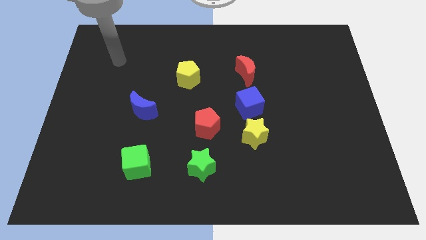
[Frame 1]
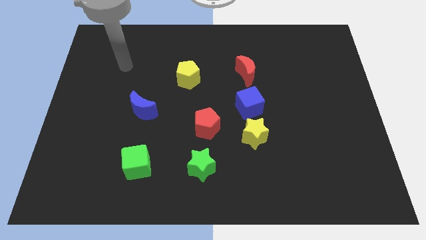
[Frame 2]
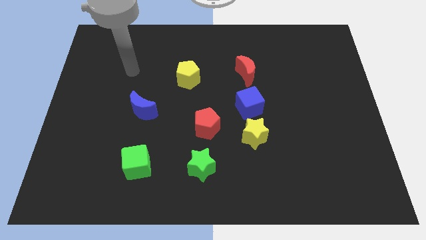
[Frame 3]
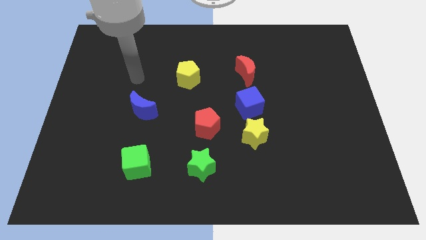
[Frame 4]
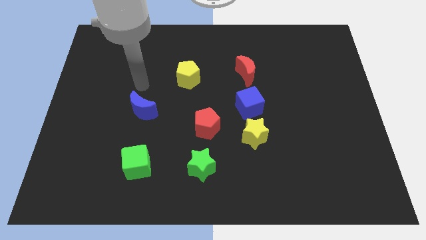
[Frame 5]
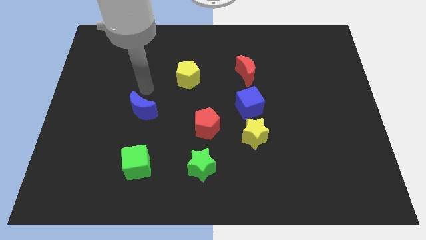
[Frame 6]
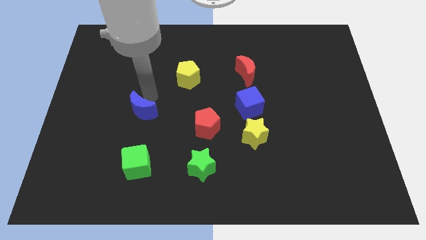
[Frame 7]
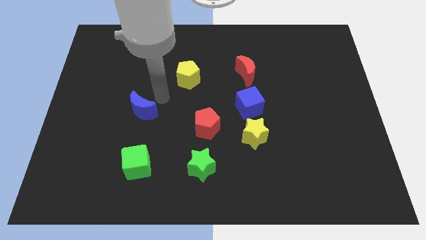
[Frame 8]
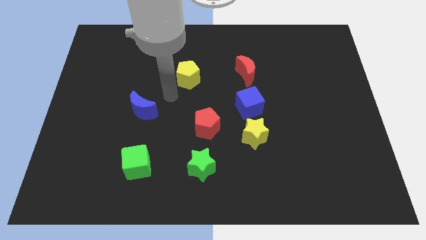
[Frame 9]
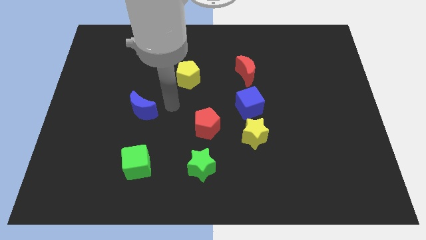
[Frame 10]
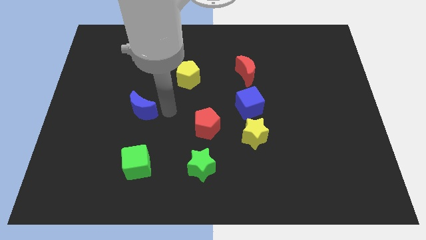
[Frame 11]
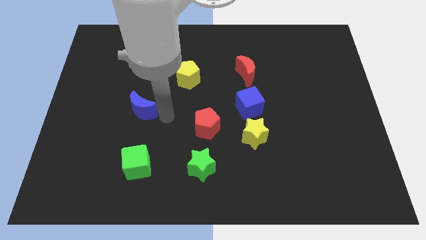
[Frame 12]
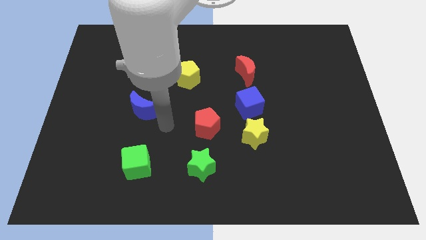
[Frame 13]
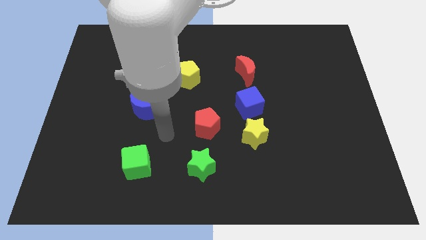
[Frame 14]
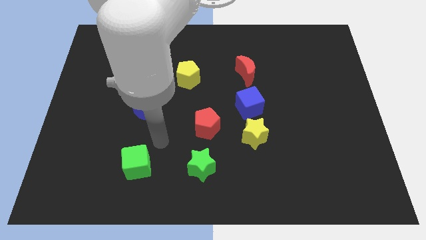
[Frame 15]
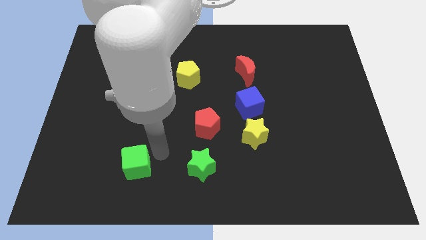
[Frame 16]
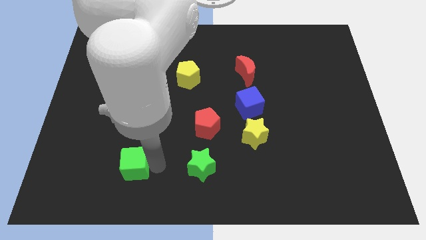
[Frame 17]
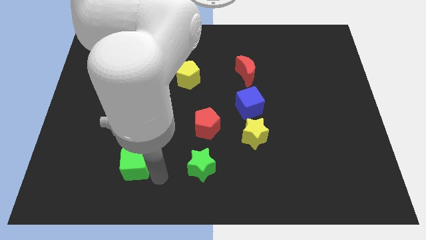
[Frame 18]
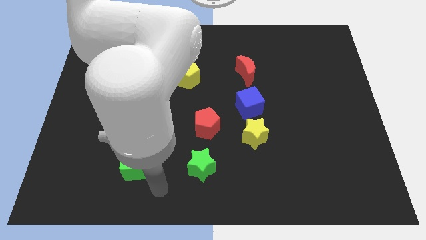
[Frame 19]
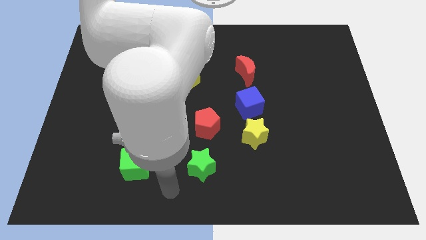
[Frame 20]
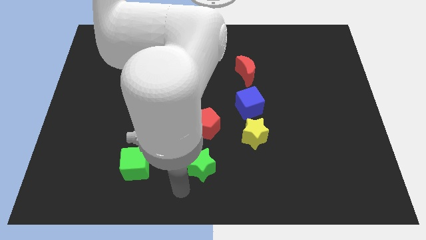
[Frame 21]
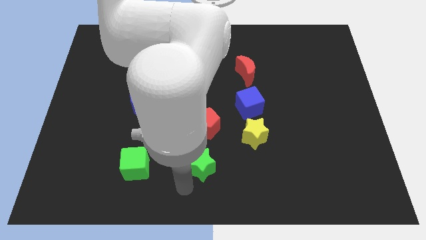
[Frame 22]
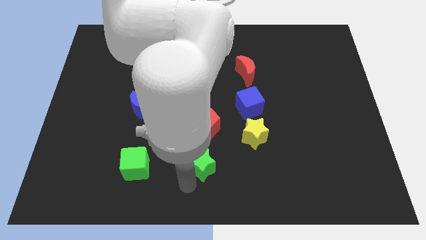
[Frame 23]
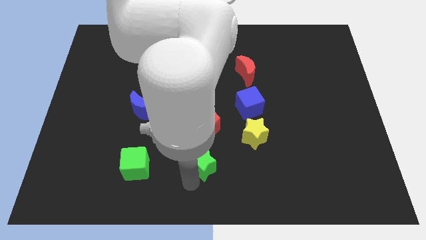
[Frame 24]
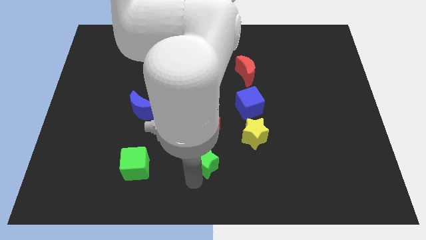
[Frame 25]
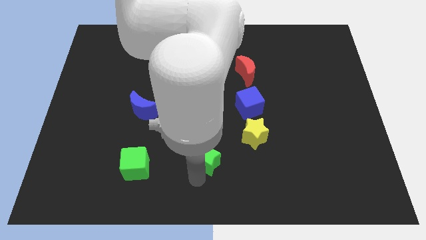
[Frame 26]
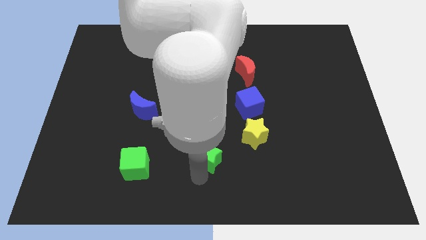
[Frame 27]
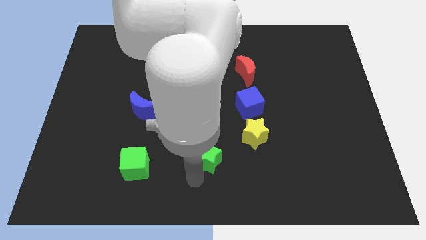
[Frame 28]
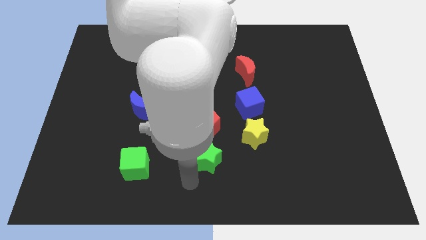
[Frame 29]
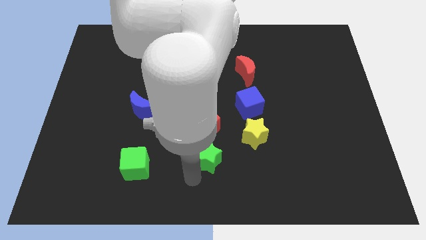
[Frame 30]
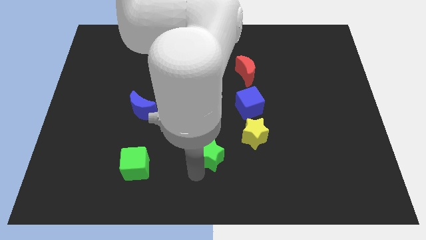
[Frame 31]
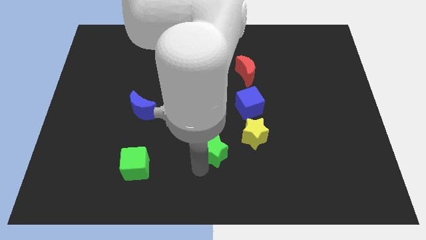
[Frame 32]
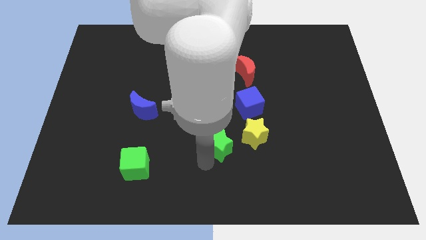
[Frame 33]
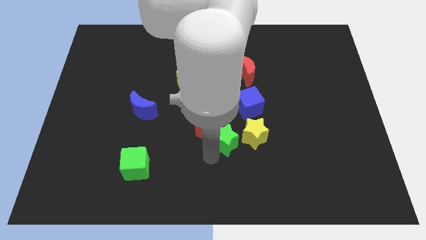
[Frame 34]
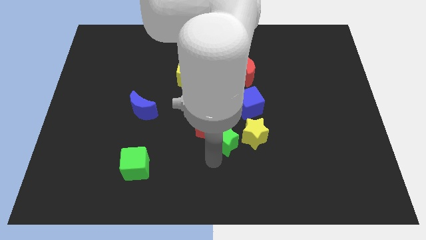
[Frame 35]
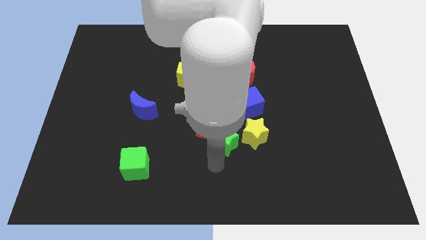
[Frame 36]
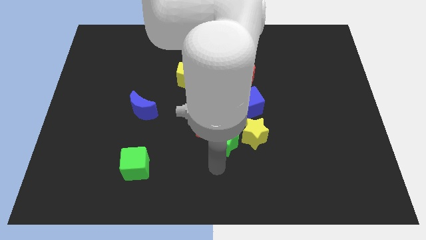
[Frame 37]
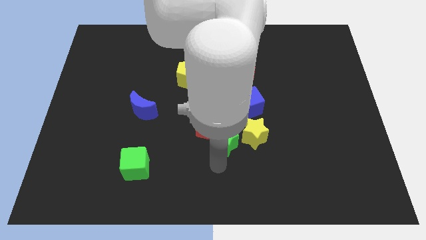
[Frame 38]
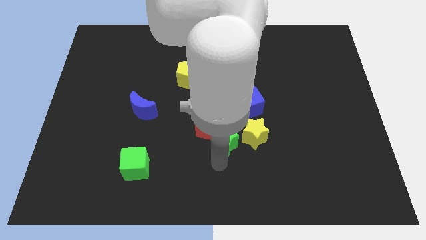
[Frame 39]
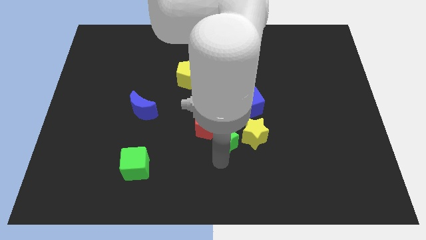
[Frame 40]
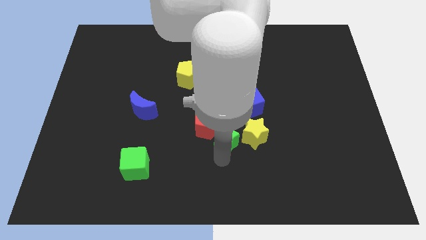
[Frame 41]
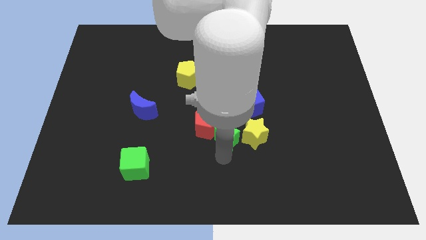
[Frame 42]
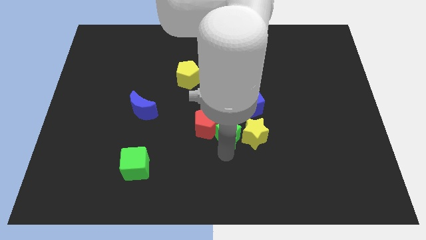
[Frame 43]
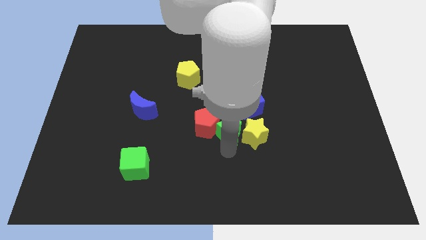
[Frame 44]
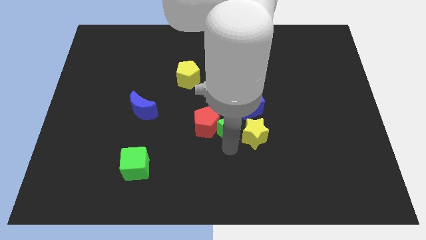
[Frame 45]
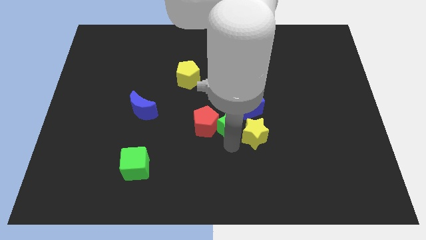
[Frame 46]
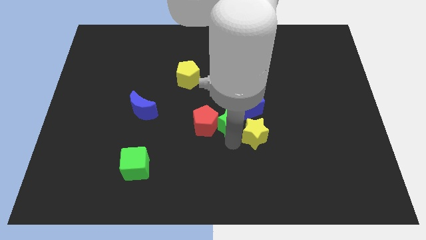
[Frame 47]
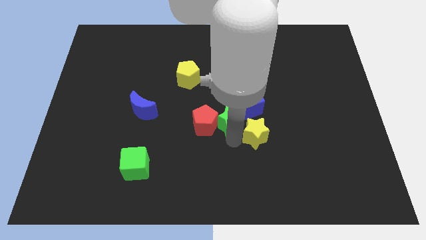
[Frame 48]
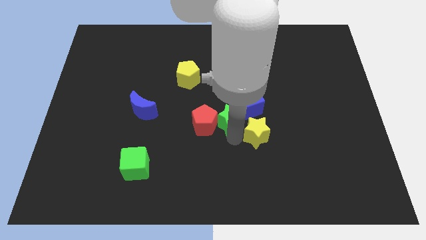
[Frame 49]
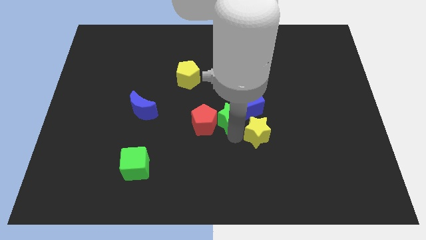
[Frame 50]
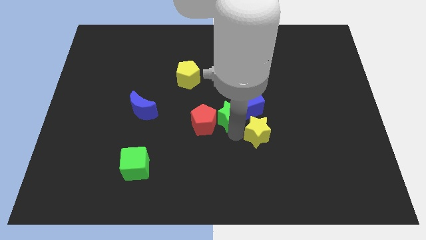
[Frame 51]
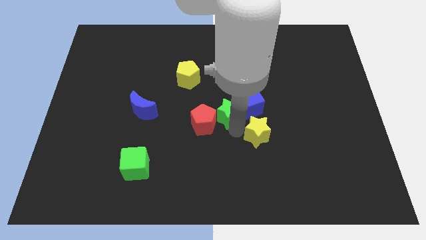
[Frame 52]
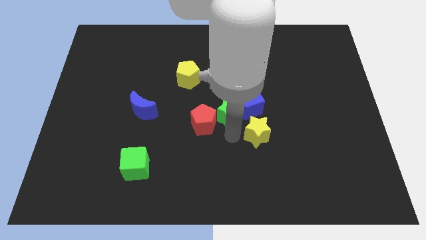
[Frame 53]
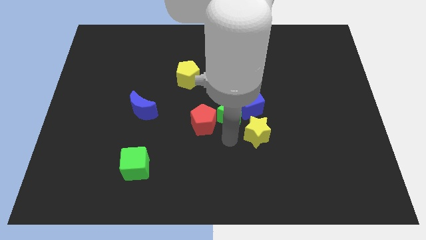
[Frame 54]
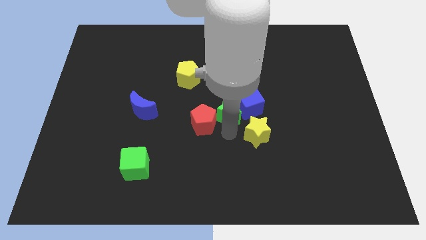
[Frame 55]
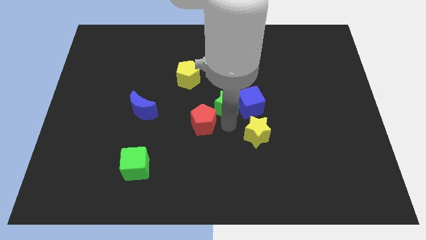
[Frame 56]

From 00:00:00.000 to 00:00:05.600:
slide the green star diagonally up and to the left of the blue cube

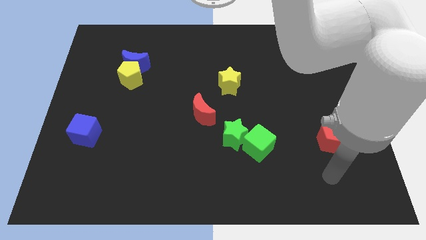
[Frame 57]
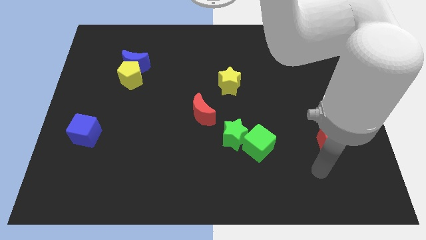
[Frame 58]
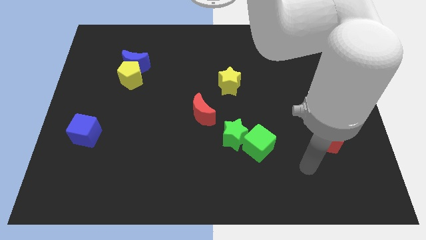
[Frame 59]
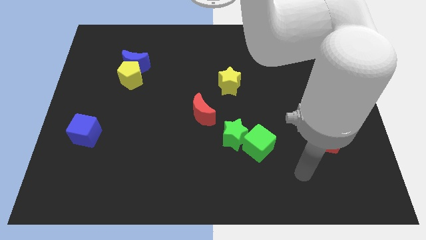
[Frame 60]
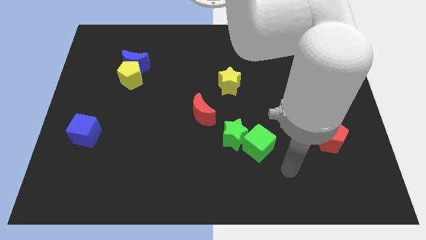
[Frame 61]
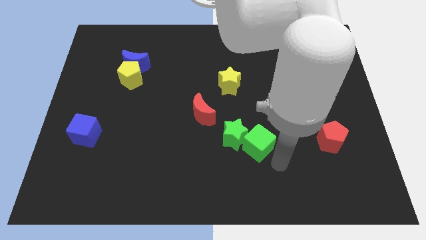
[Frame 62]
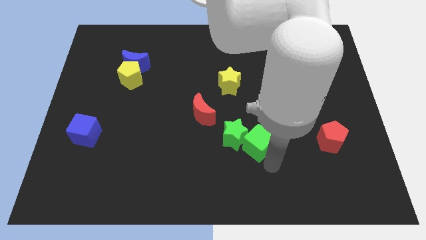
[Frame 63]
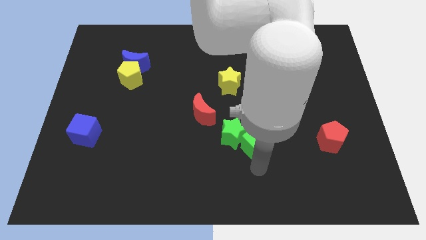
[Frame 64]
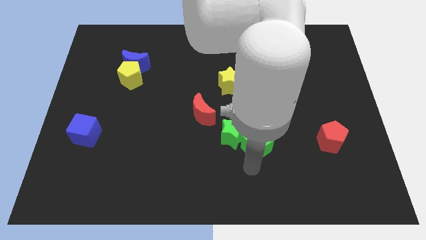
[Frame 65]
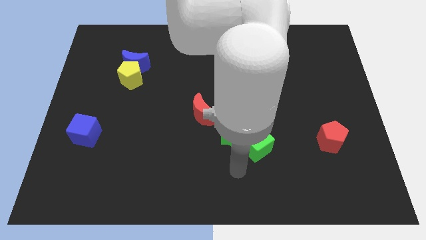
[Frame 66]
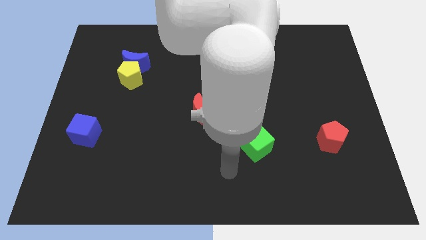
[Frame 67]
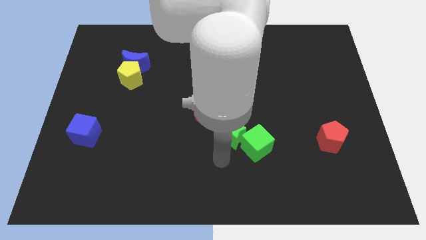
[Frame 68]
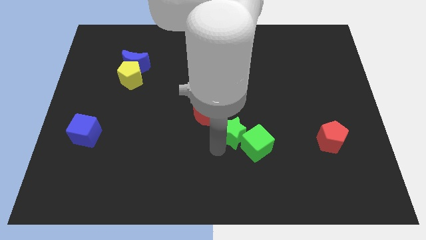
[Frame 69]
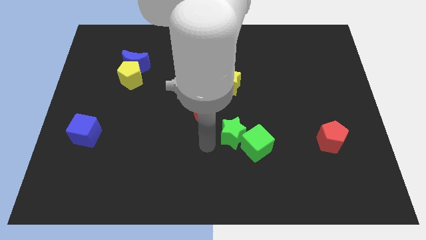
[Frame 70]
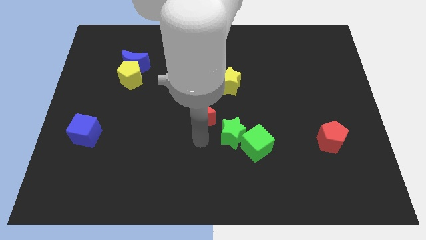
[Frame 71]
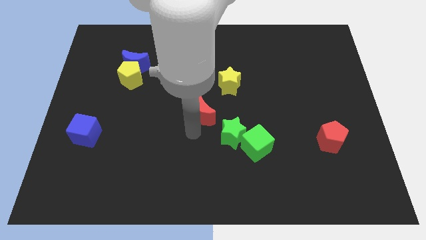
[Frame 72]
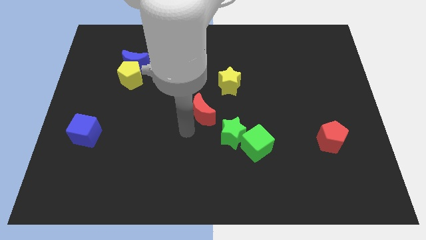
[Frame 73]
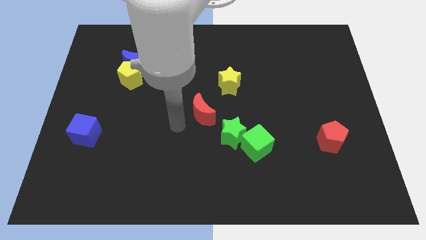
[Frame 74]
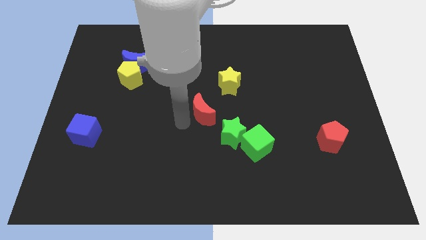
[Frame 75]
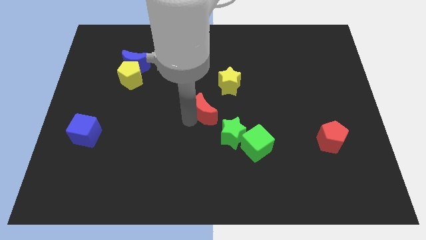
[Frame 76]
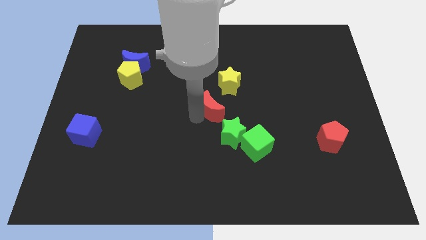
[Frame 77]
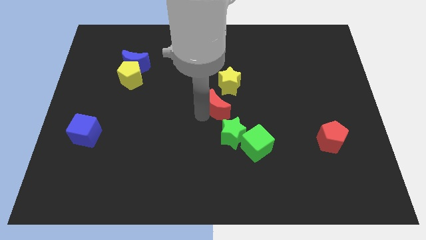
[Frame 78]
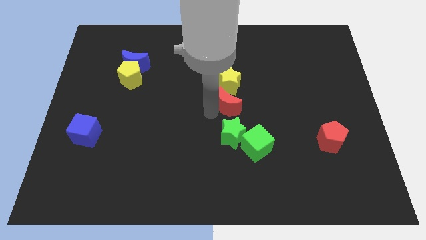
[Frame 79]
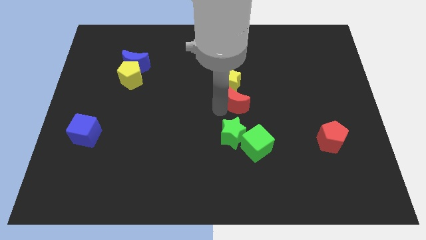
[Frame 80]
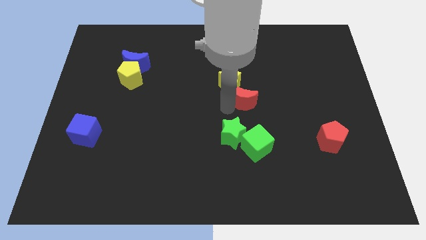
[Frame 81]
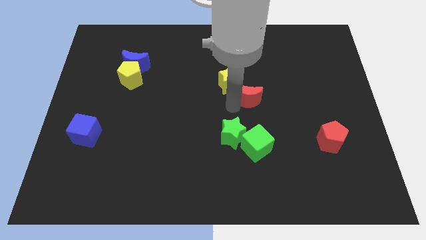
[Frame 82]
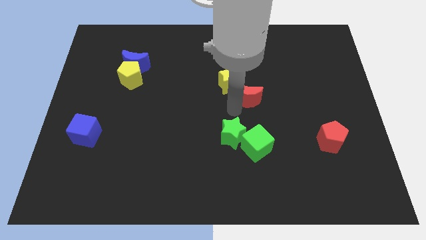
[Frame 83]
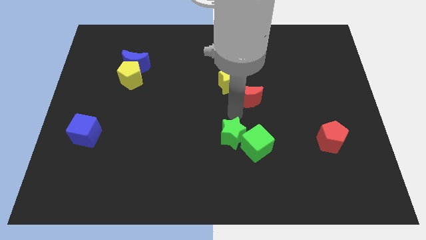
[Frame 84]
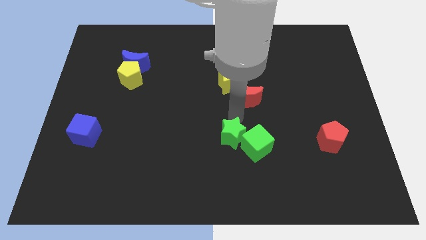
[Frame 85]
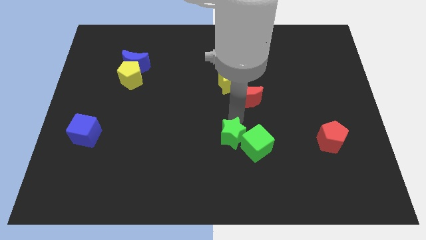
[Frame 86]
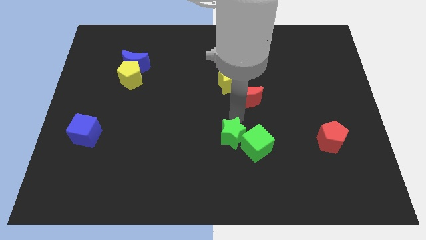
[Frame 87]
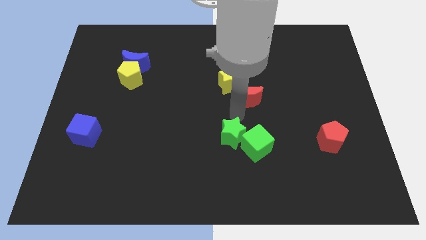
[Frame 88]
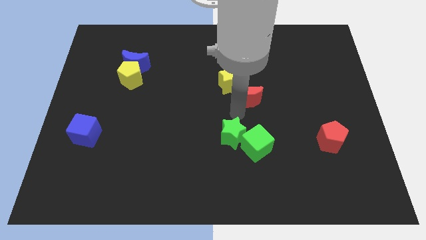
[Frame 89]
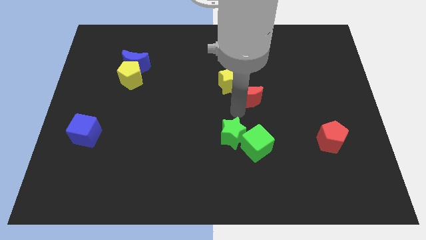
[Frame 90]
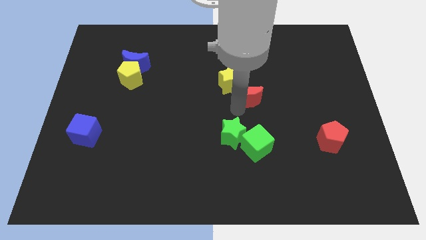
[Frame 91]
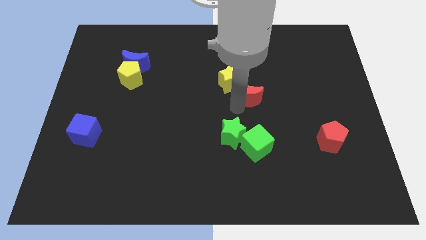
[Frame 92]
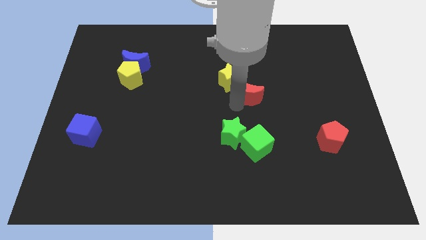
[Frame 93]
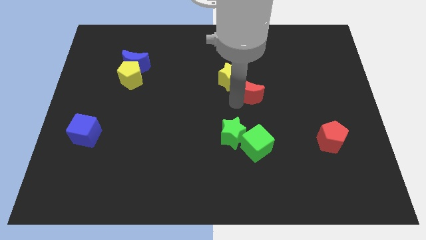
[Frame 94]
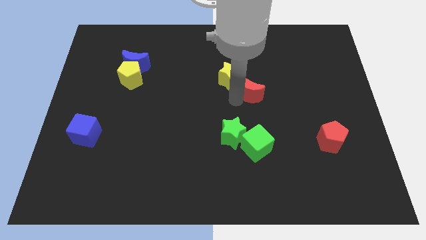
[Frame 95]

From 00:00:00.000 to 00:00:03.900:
put the red moon to the right side of the yellow star
